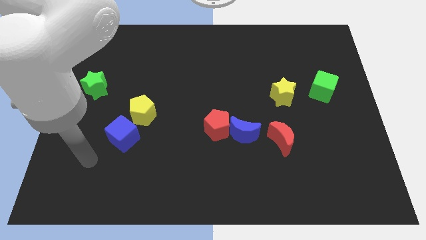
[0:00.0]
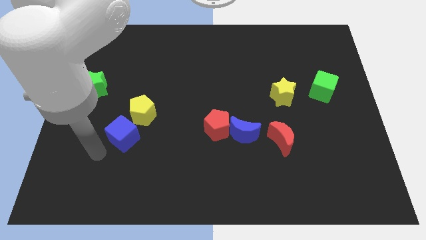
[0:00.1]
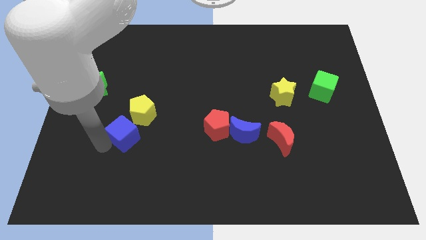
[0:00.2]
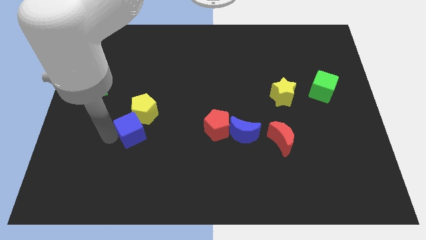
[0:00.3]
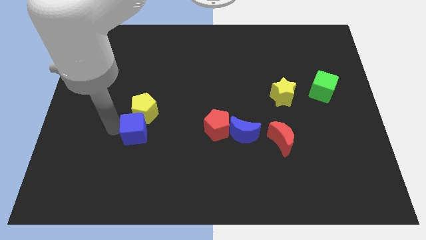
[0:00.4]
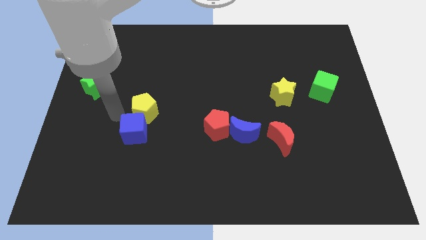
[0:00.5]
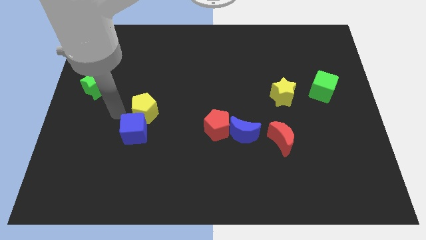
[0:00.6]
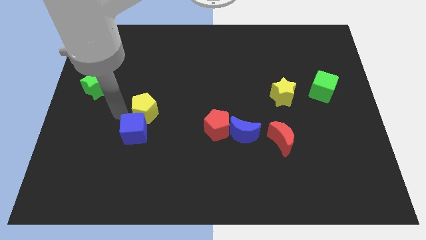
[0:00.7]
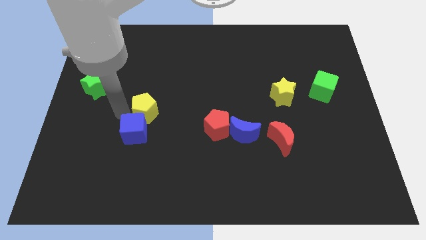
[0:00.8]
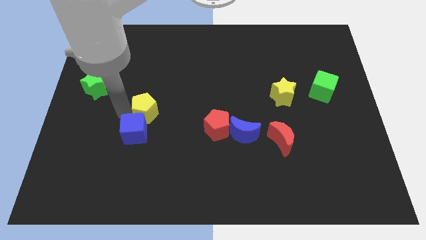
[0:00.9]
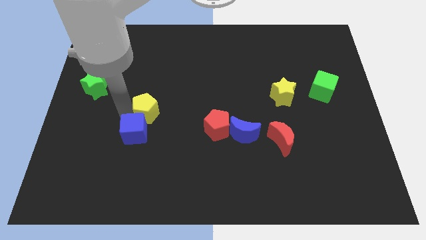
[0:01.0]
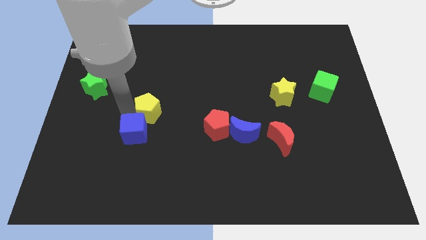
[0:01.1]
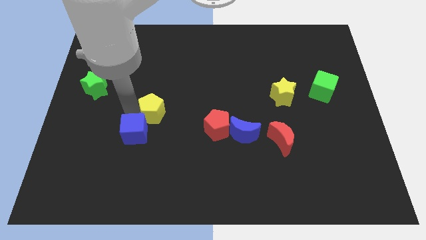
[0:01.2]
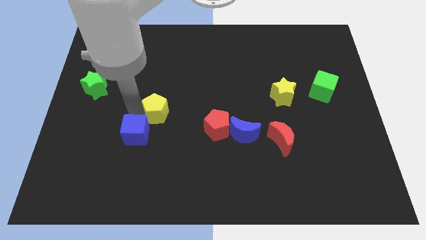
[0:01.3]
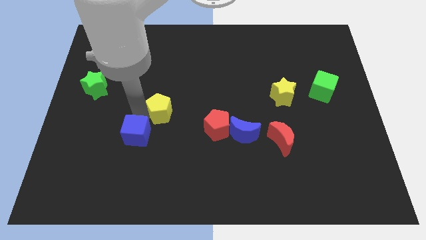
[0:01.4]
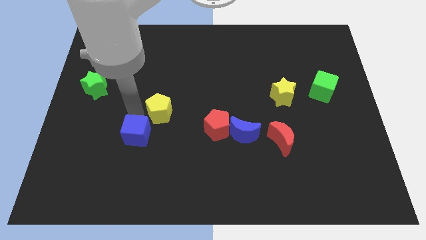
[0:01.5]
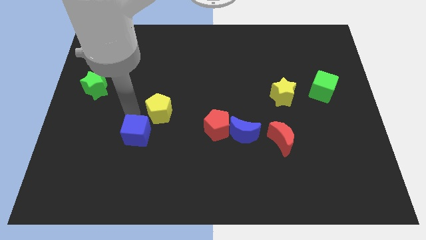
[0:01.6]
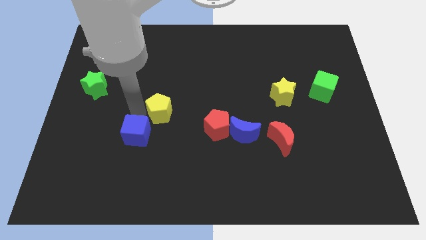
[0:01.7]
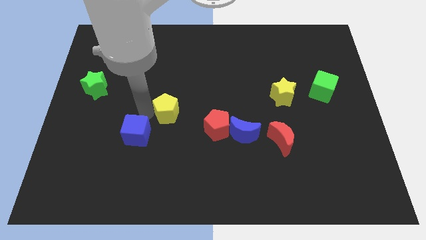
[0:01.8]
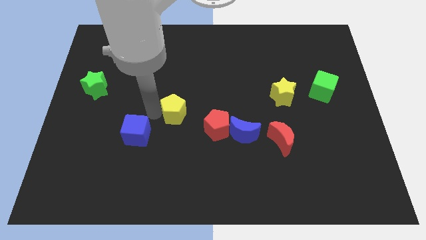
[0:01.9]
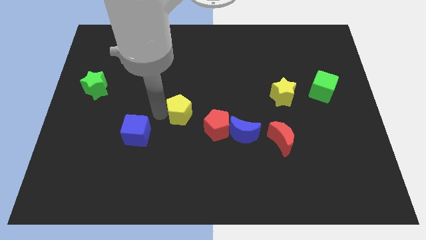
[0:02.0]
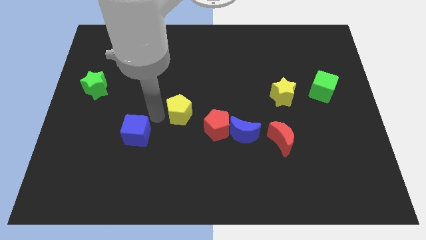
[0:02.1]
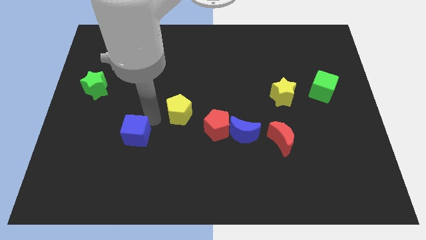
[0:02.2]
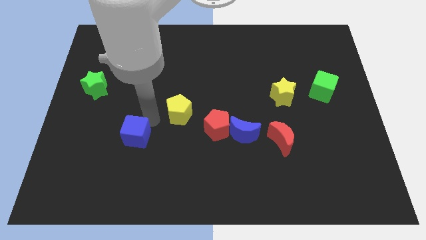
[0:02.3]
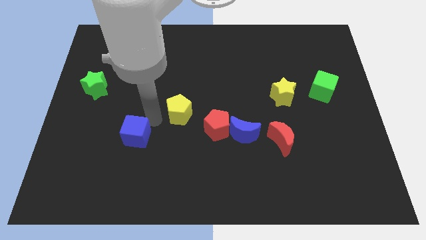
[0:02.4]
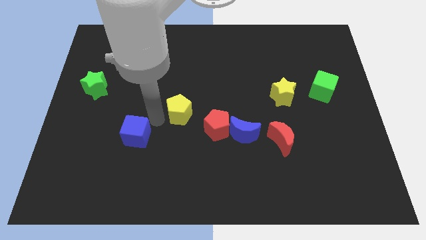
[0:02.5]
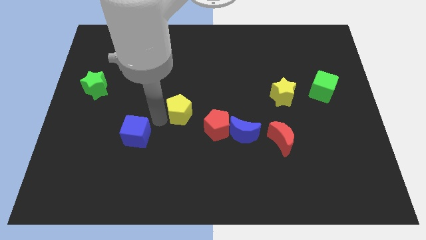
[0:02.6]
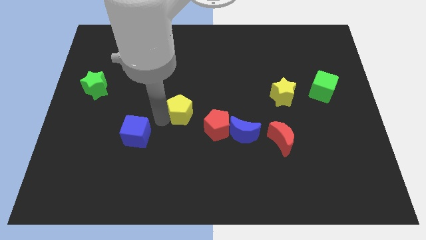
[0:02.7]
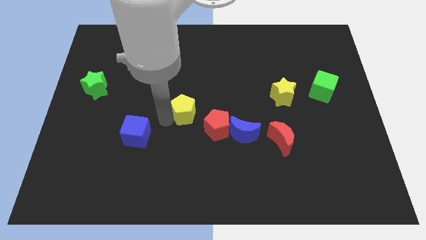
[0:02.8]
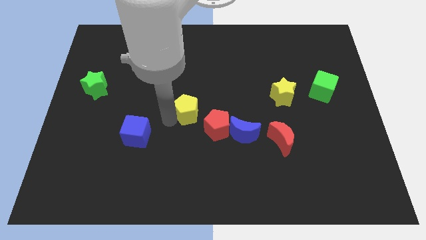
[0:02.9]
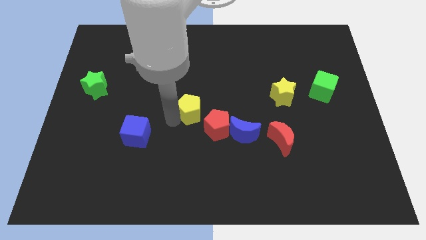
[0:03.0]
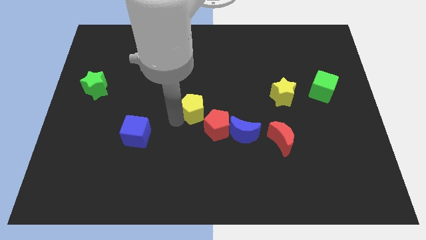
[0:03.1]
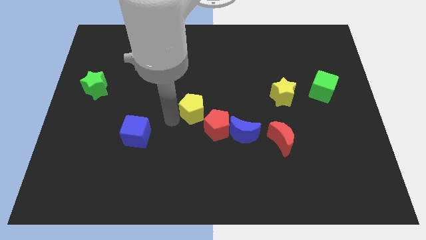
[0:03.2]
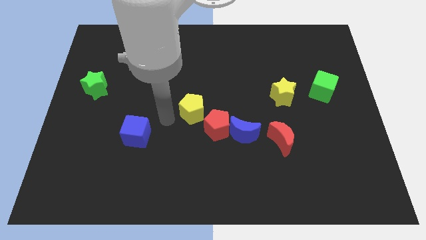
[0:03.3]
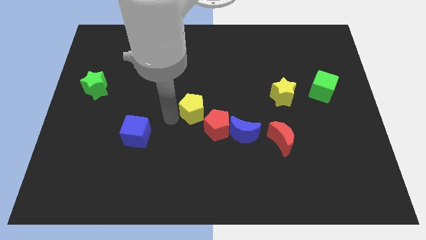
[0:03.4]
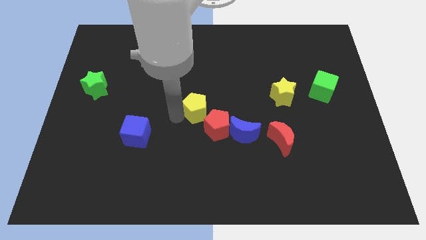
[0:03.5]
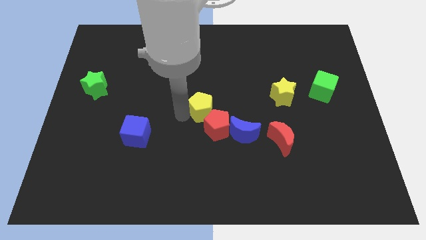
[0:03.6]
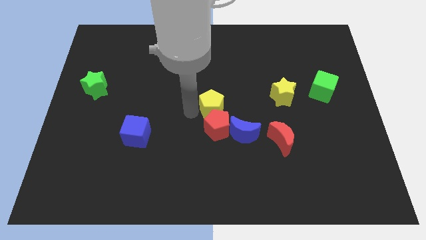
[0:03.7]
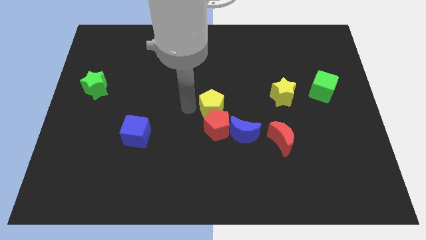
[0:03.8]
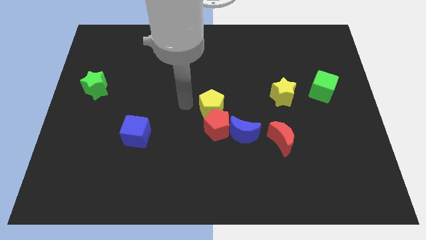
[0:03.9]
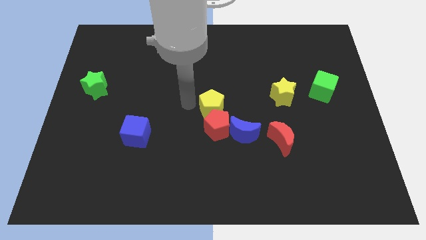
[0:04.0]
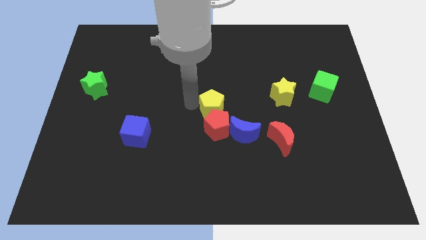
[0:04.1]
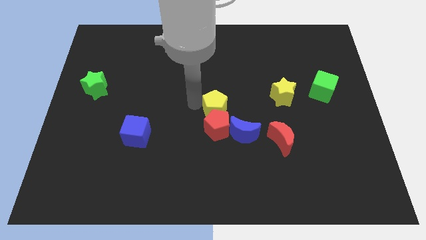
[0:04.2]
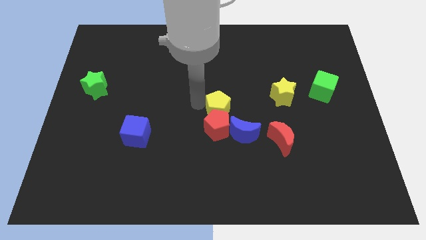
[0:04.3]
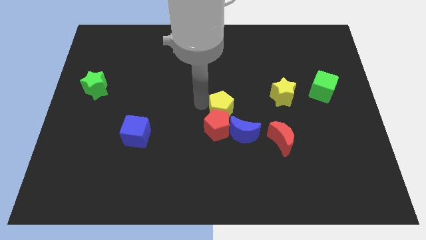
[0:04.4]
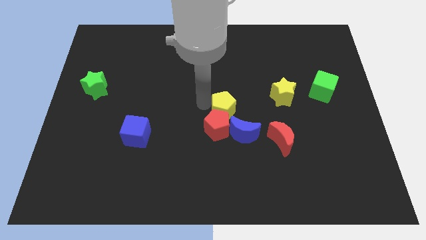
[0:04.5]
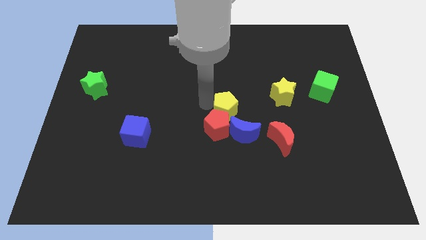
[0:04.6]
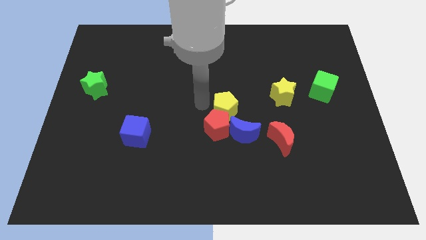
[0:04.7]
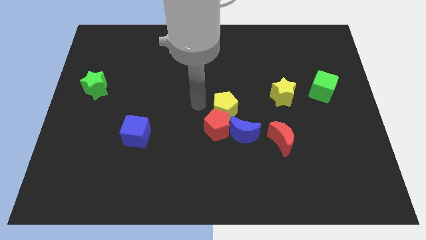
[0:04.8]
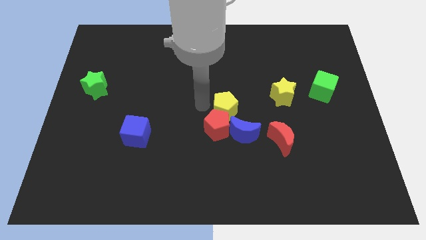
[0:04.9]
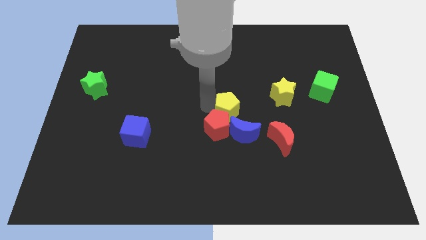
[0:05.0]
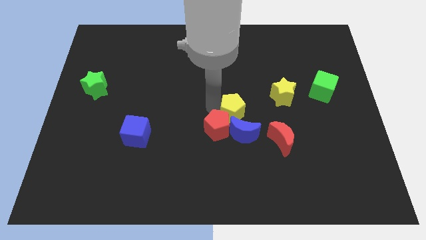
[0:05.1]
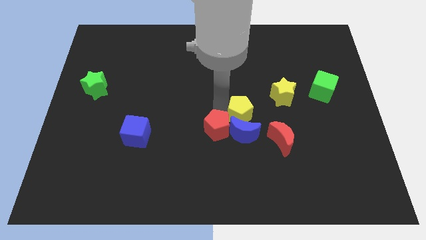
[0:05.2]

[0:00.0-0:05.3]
put the yellow pentagon diagonally up and to the left of the red moon

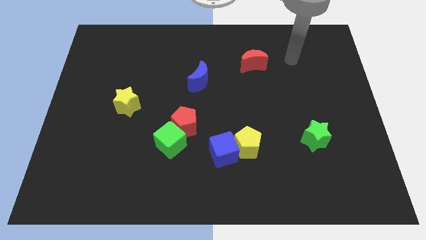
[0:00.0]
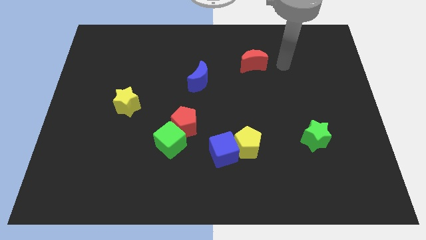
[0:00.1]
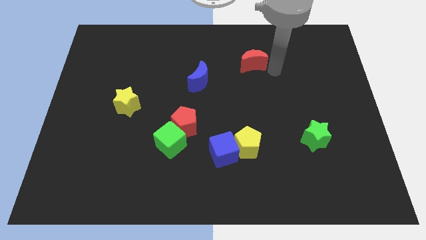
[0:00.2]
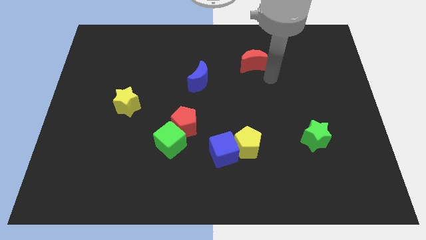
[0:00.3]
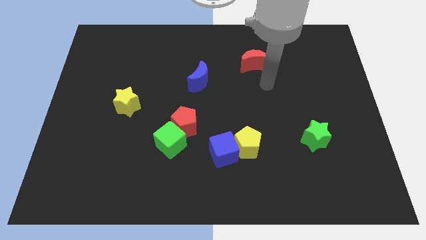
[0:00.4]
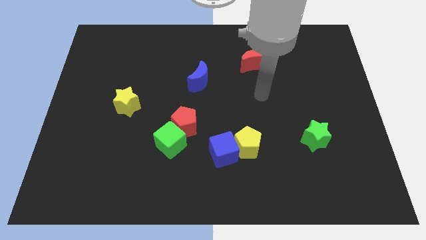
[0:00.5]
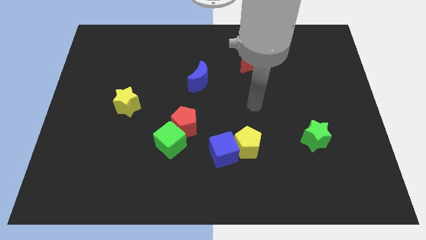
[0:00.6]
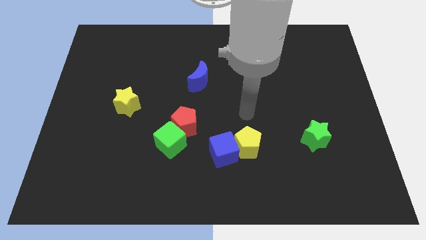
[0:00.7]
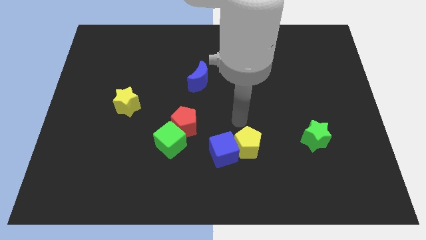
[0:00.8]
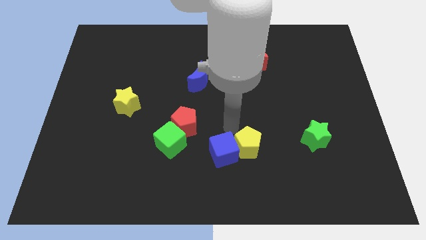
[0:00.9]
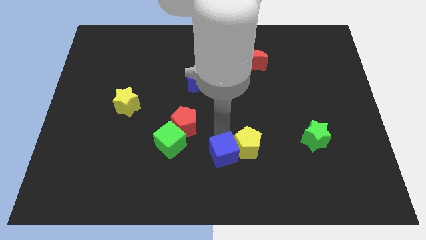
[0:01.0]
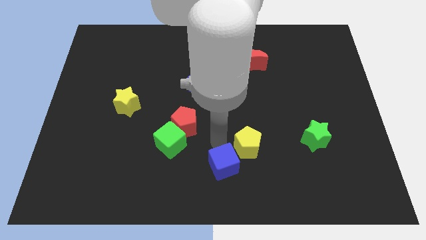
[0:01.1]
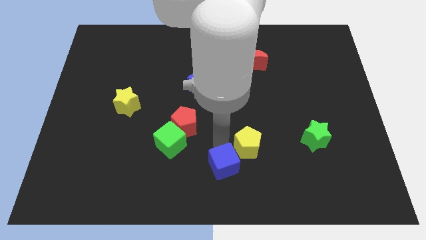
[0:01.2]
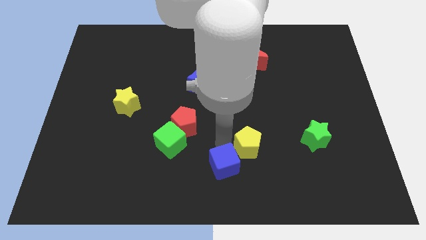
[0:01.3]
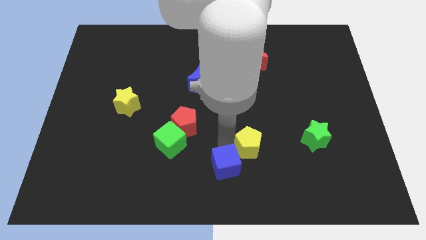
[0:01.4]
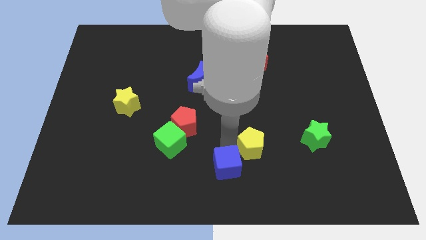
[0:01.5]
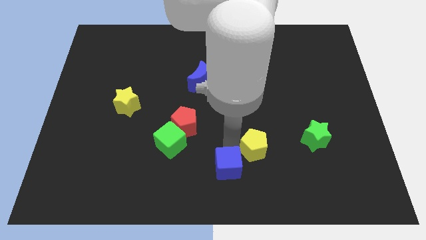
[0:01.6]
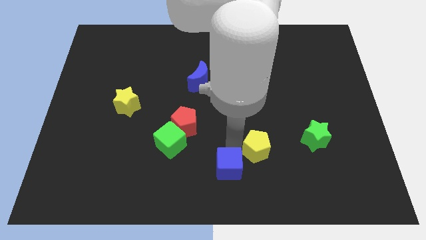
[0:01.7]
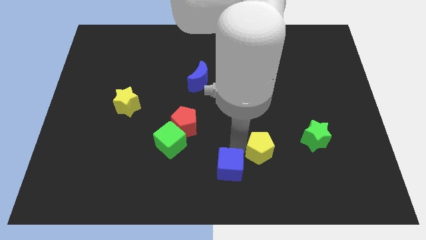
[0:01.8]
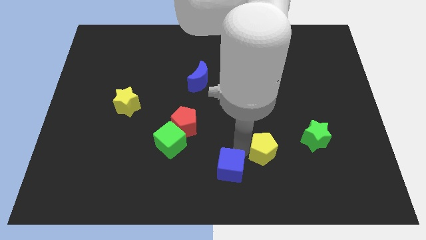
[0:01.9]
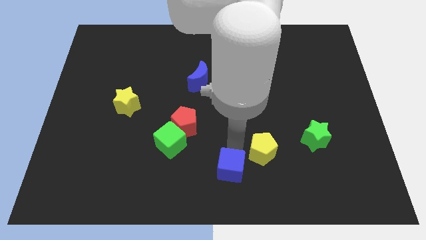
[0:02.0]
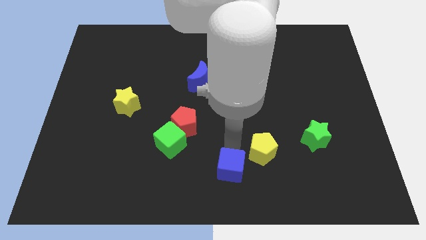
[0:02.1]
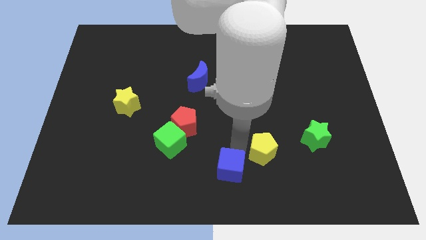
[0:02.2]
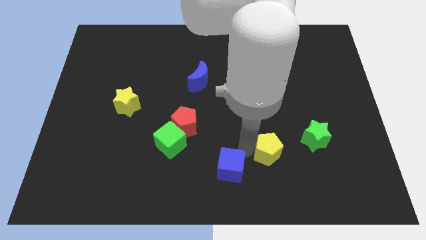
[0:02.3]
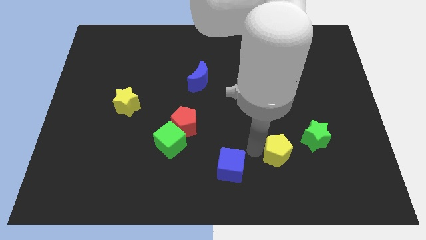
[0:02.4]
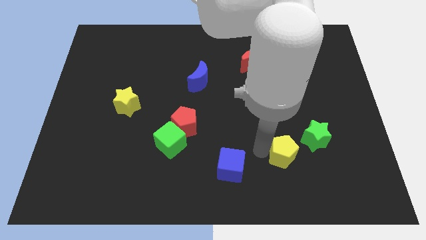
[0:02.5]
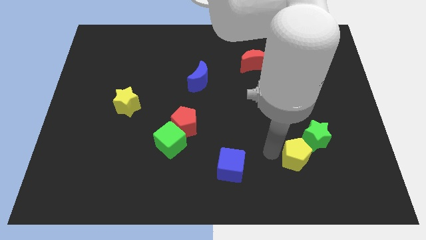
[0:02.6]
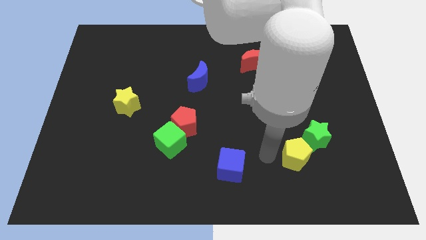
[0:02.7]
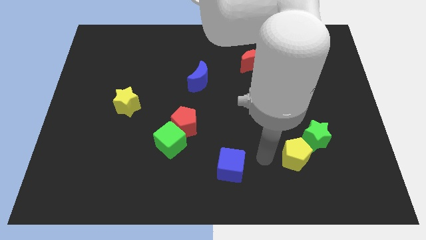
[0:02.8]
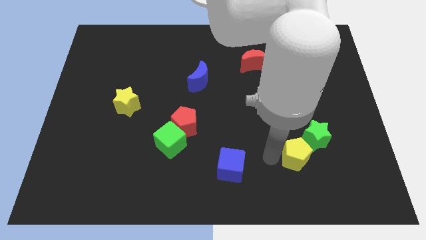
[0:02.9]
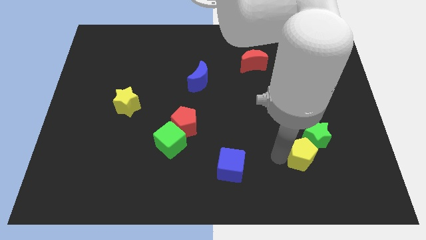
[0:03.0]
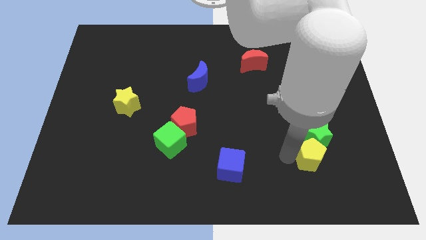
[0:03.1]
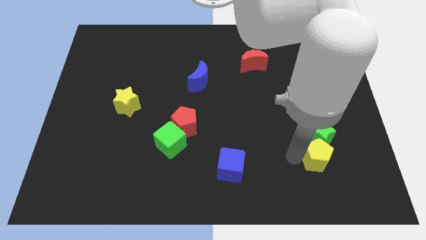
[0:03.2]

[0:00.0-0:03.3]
slide the yellow pentagon to the bottom right of the green star
